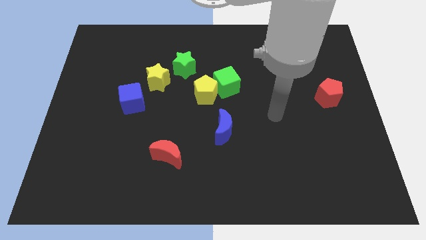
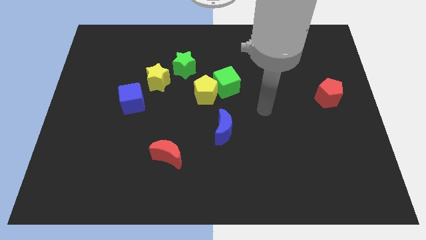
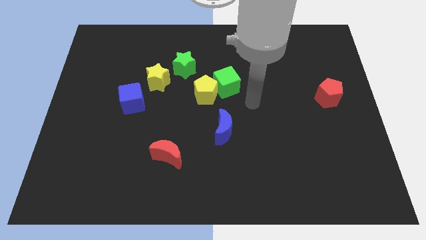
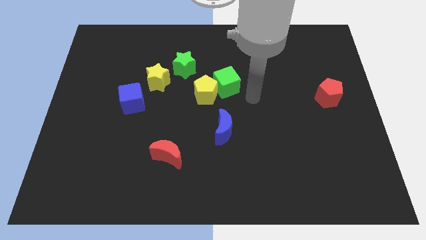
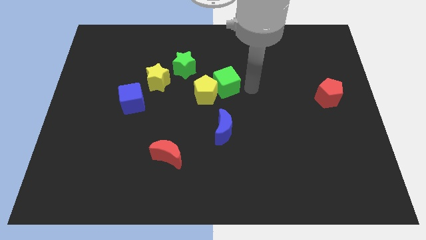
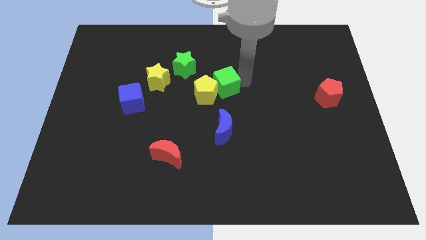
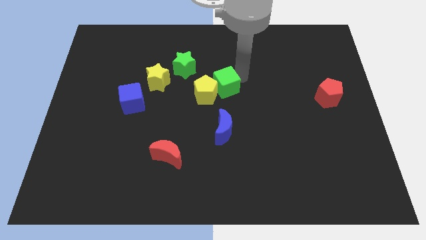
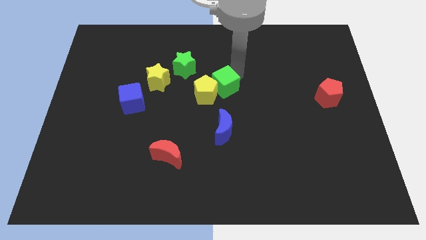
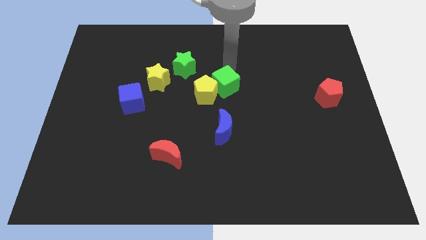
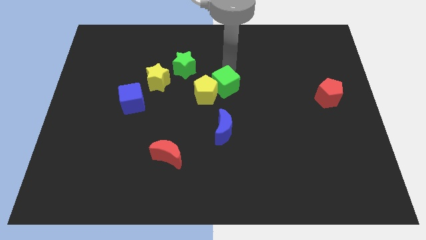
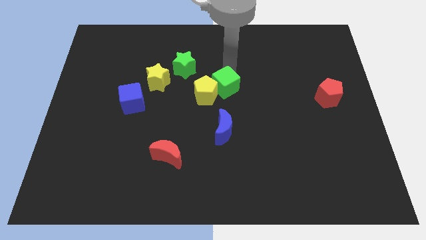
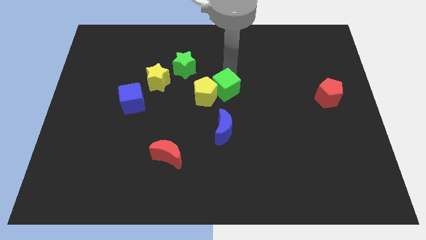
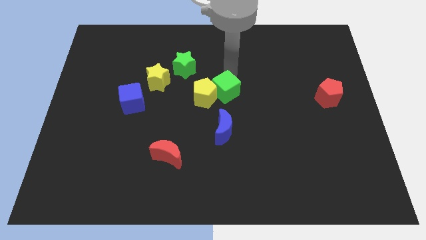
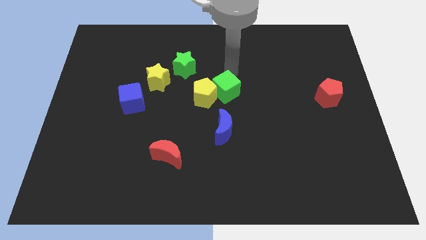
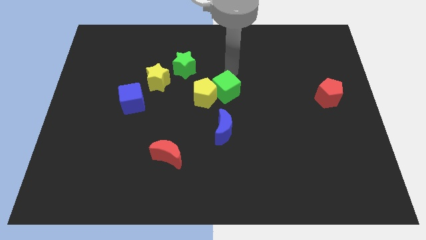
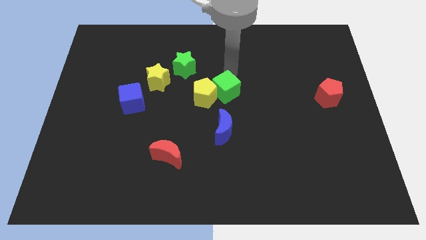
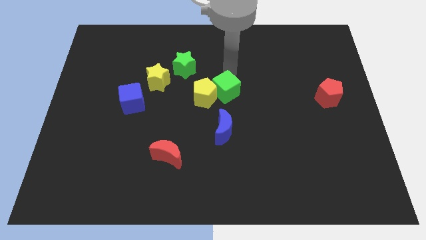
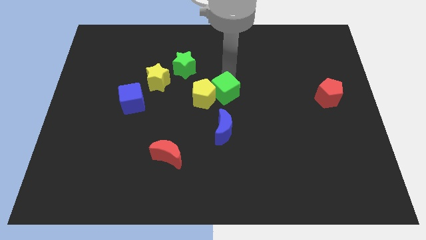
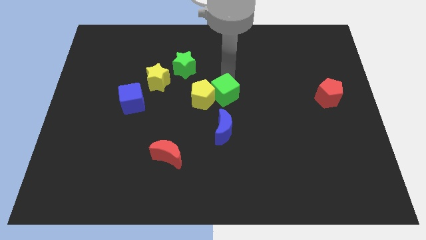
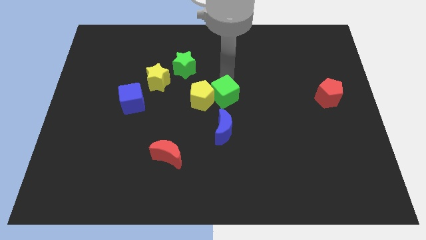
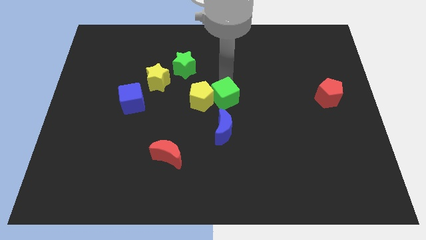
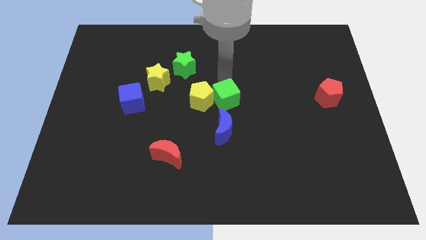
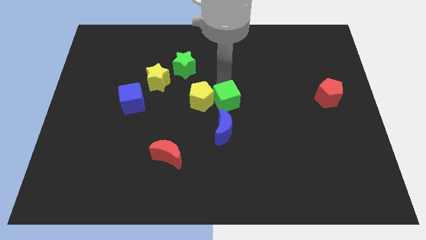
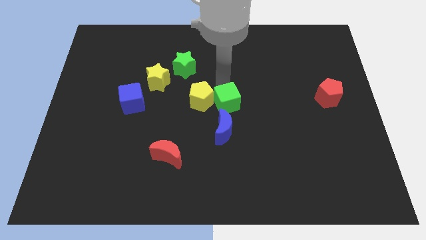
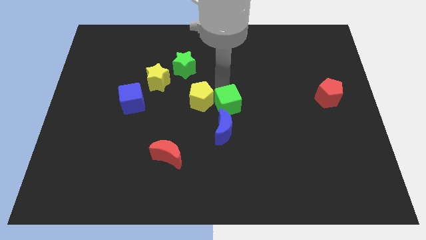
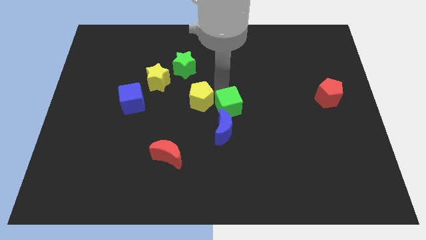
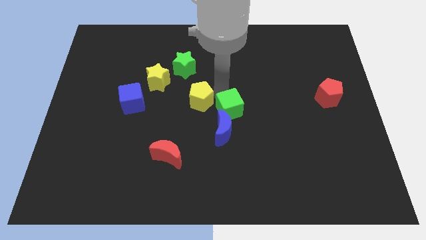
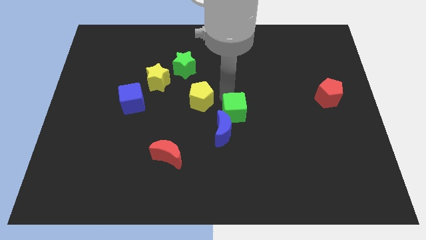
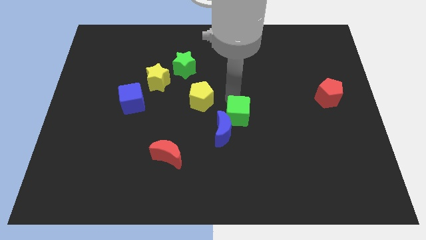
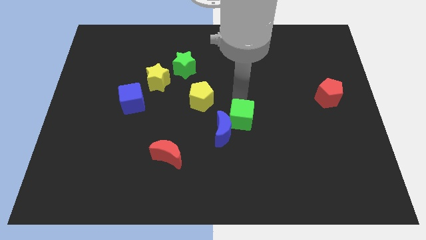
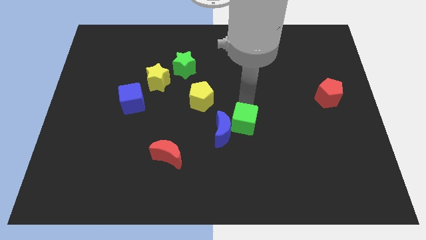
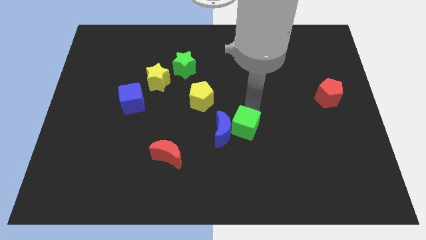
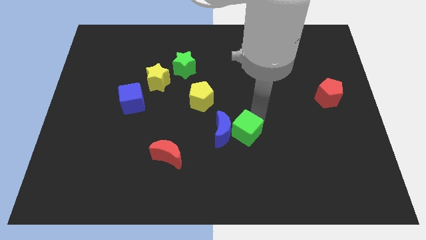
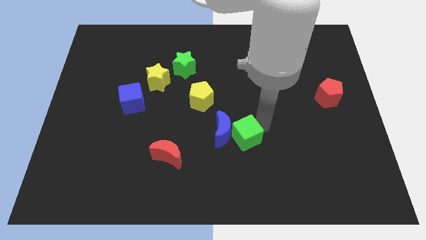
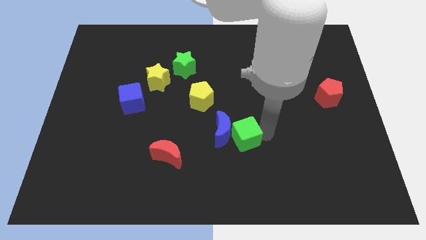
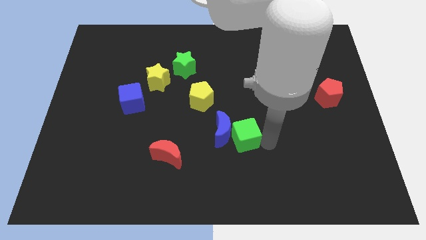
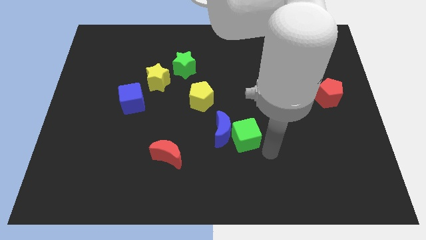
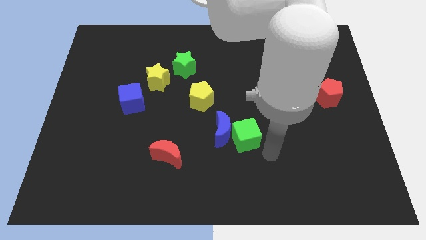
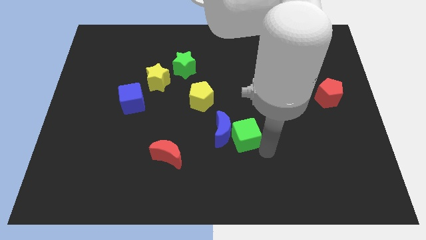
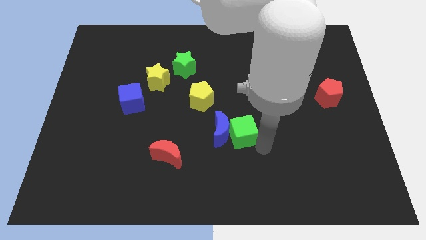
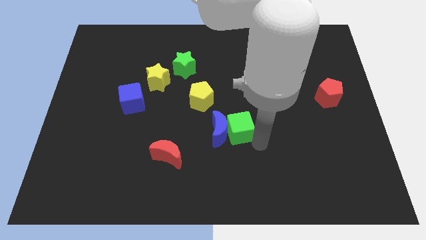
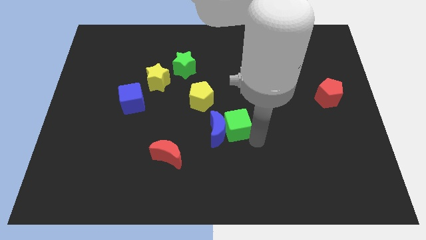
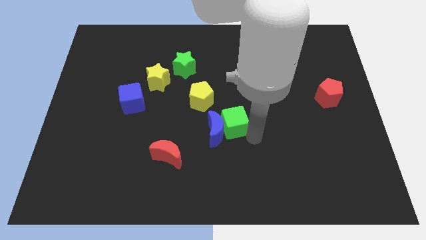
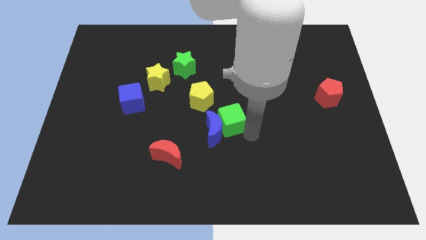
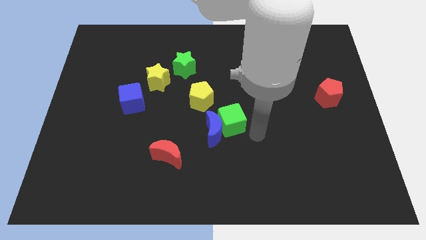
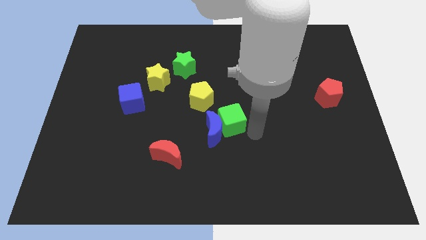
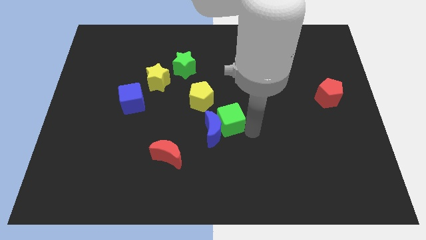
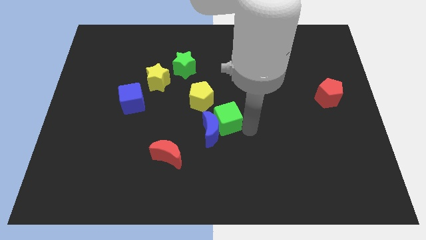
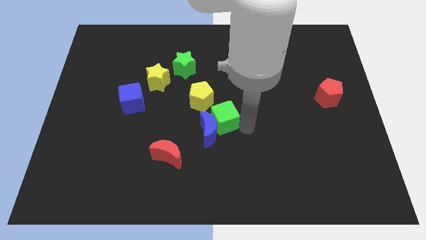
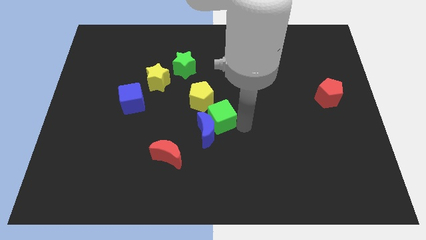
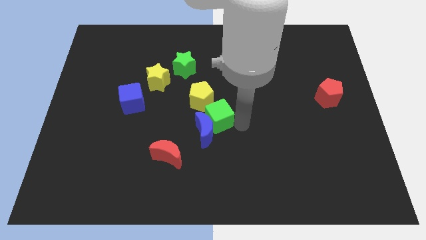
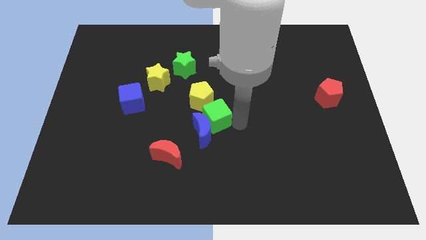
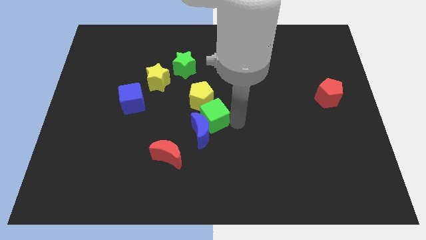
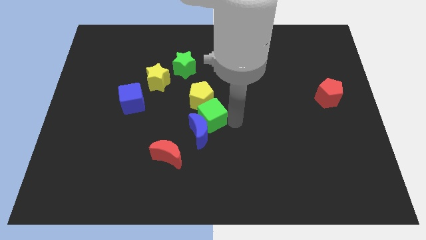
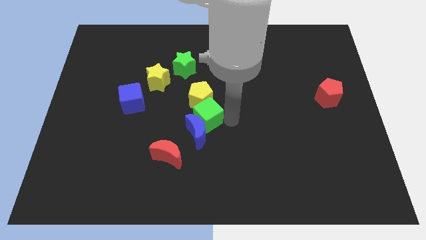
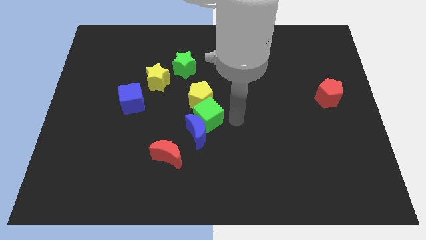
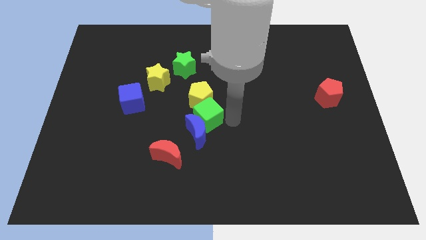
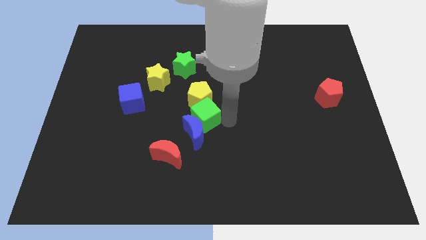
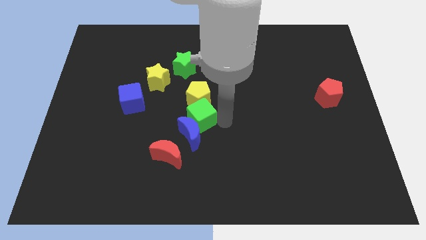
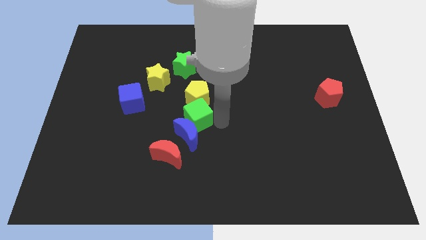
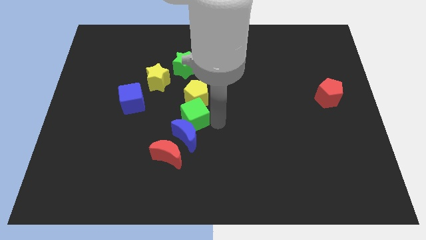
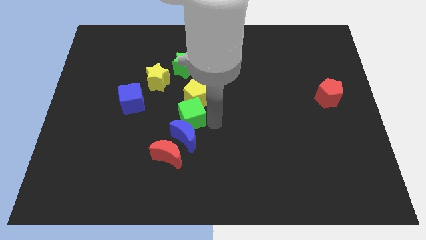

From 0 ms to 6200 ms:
put the green cube to the top side of the red moon

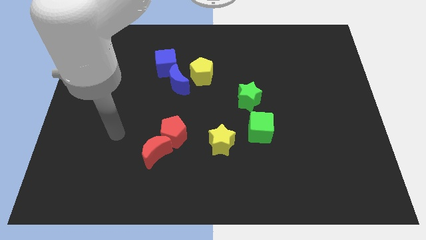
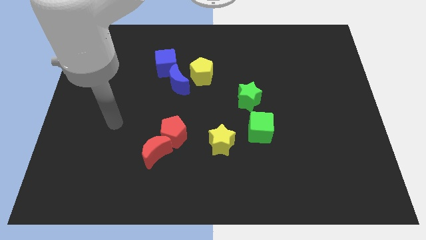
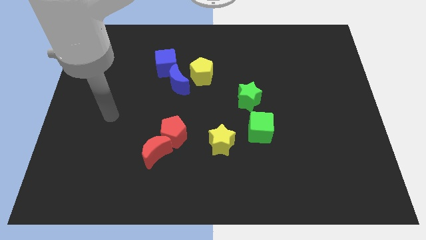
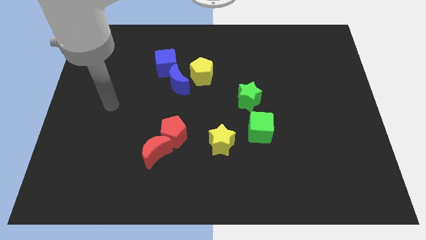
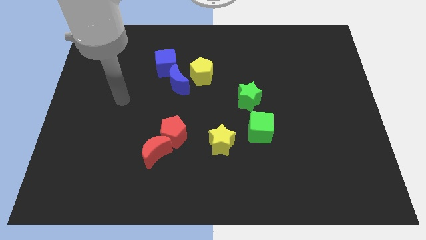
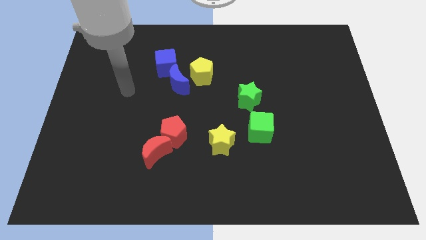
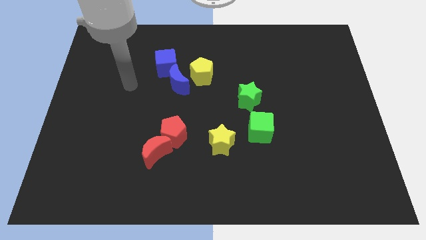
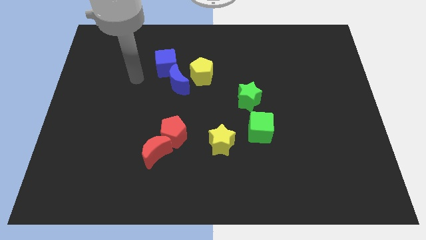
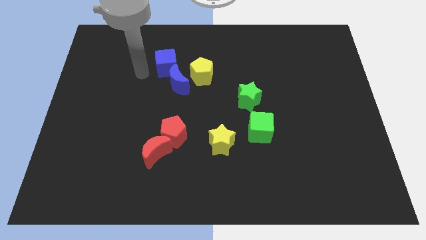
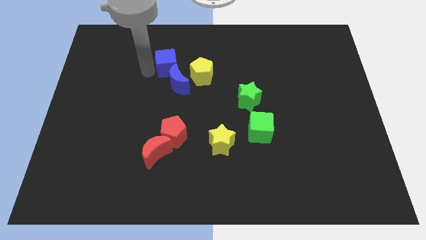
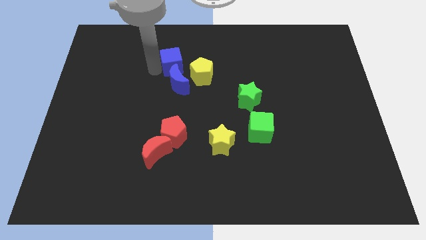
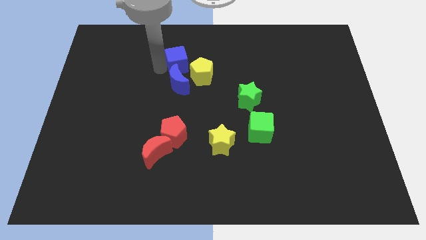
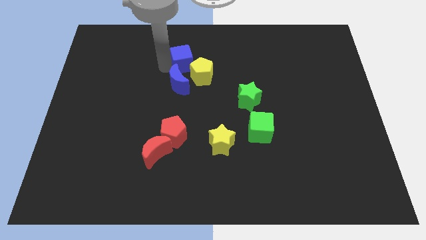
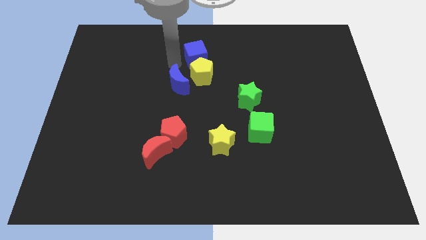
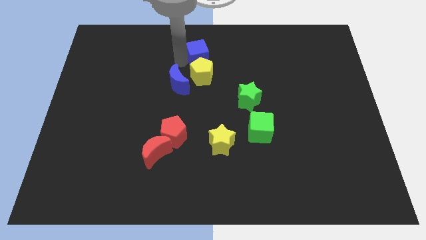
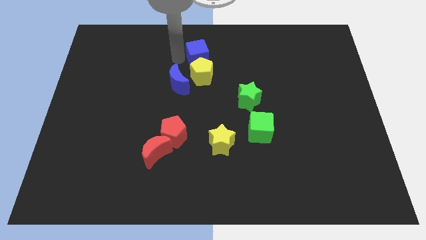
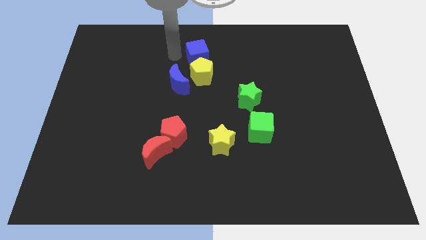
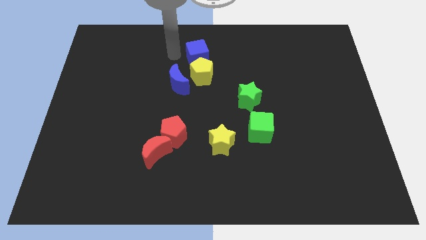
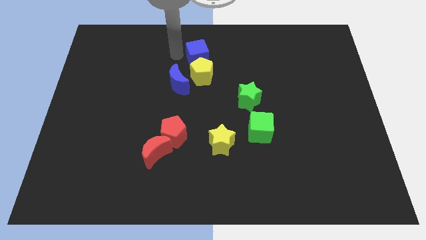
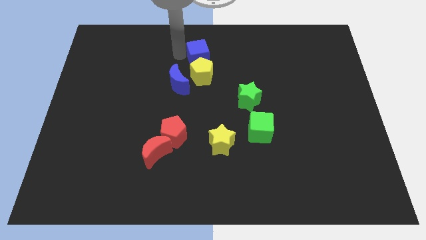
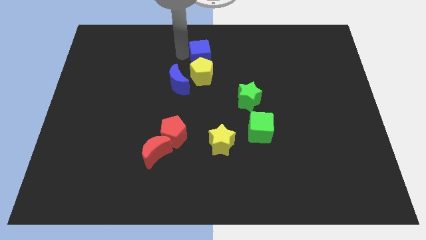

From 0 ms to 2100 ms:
slide the blue cube diagonally up and to the right of the yellow pentagon
